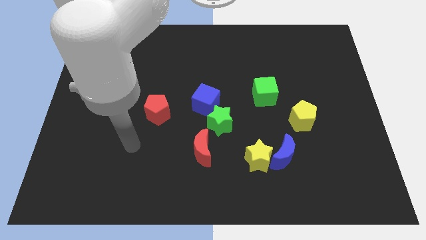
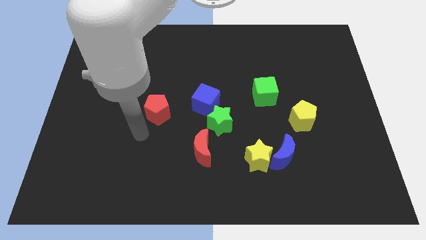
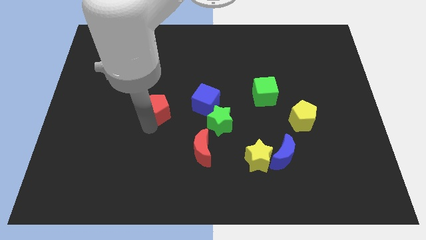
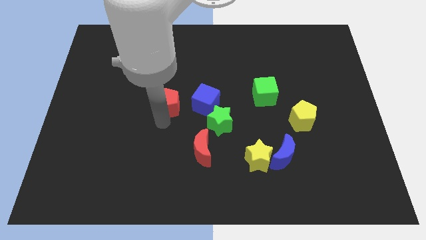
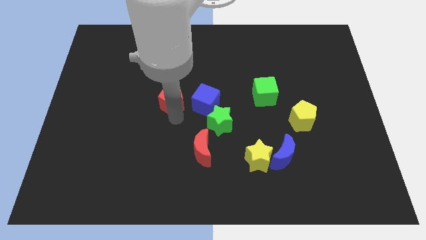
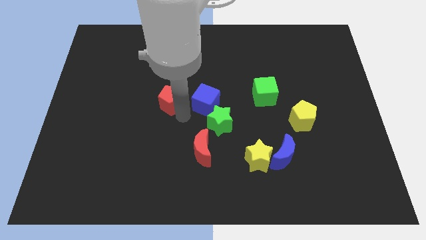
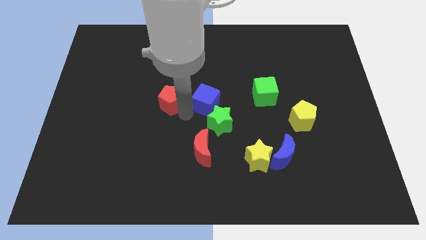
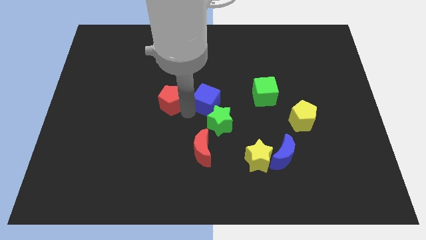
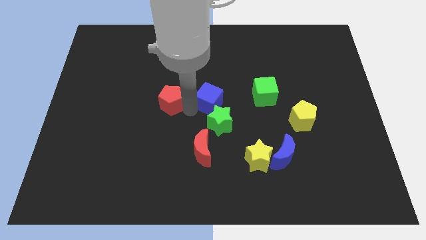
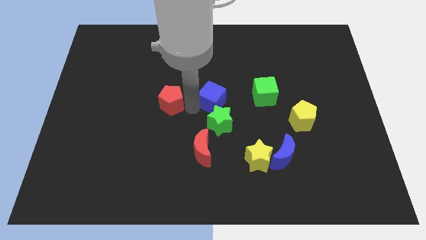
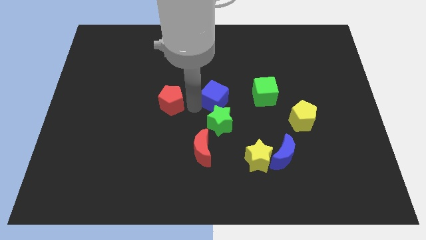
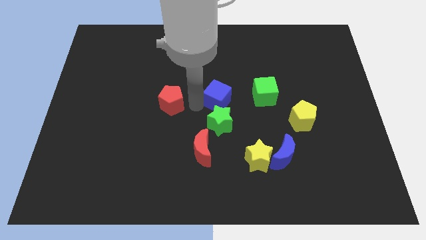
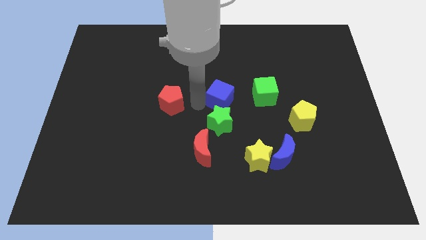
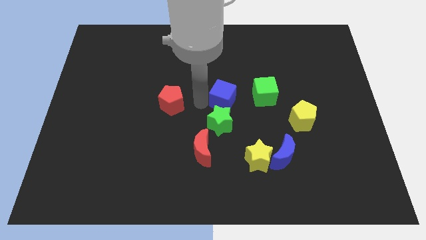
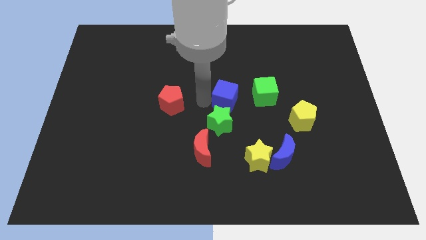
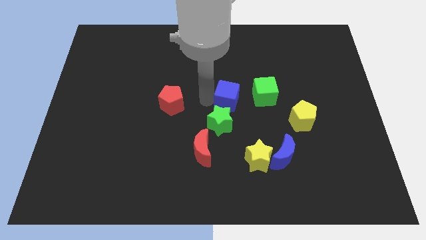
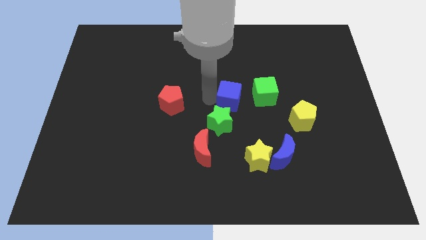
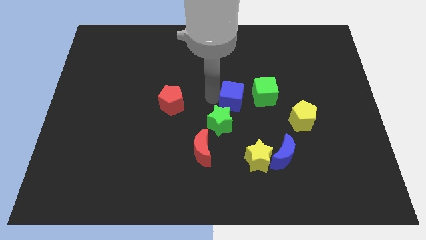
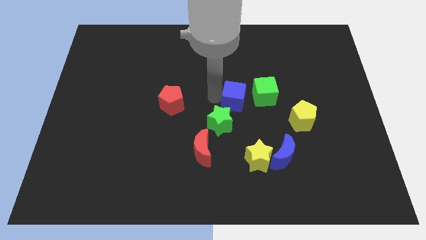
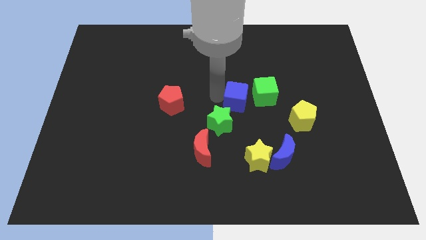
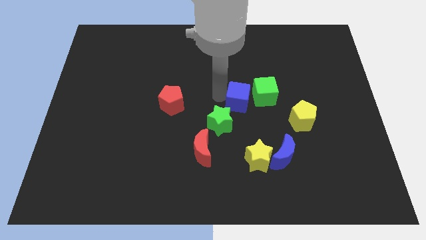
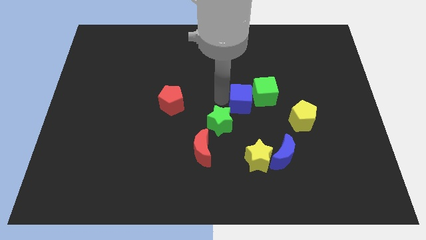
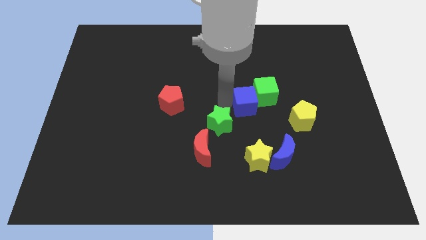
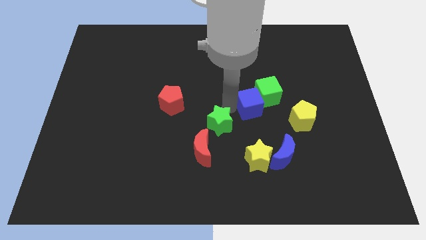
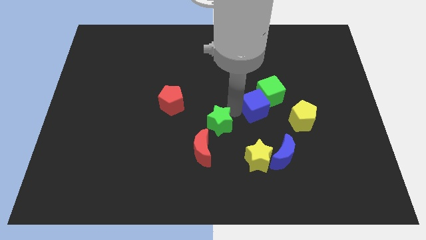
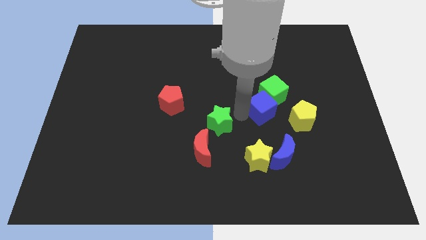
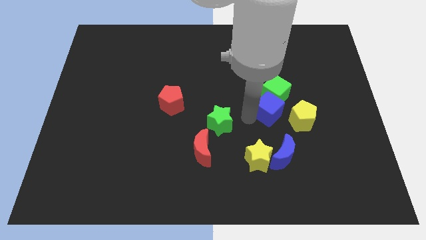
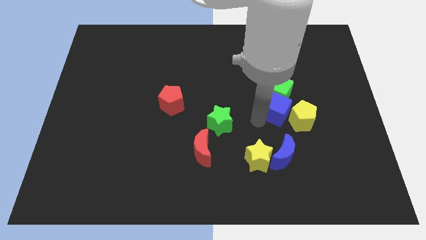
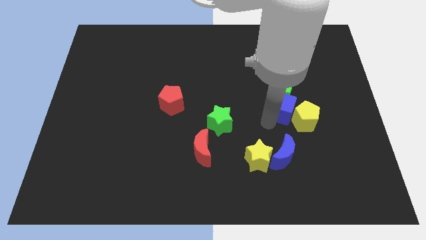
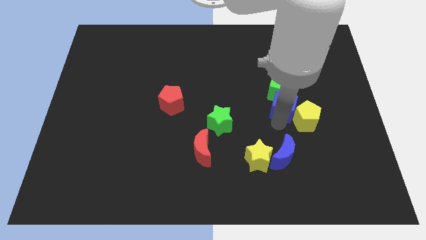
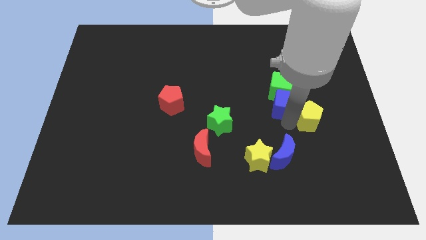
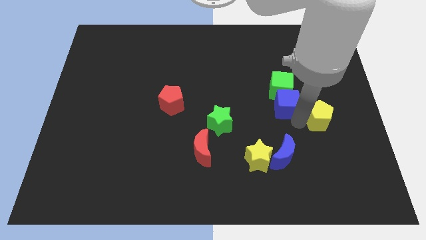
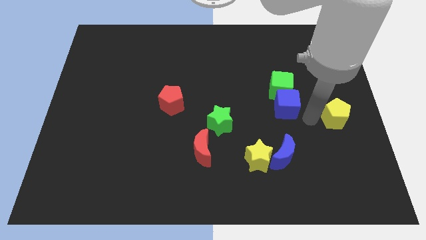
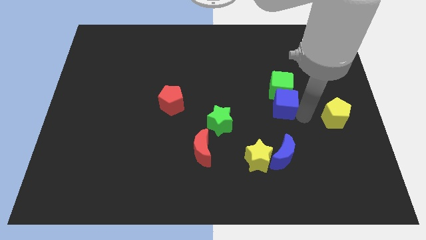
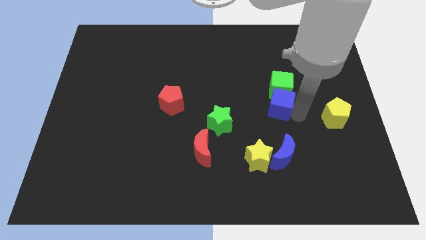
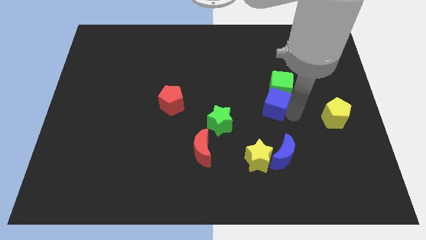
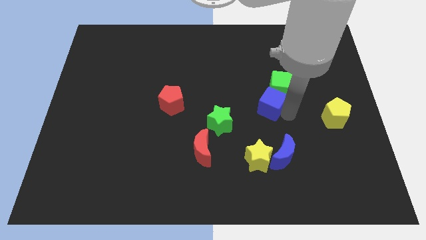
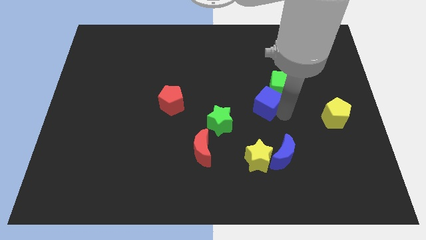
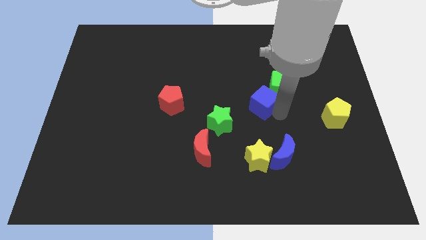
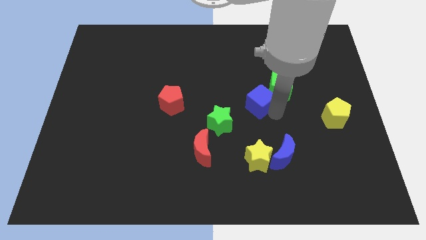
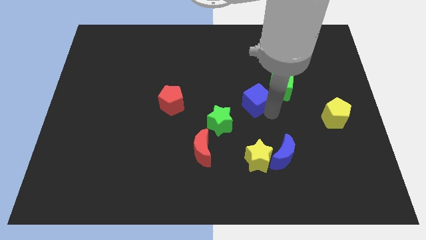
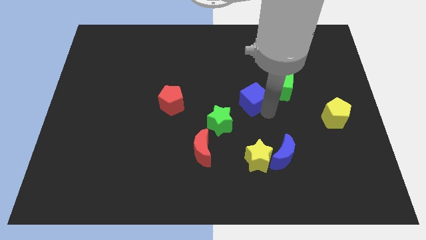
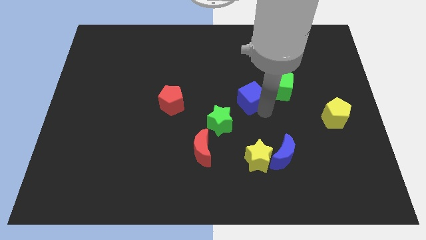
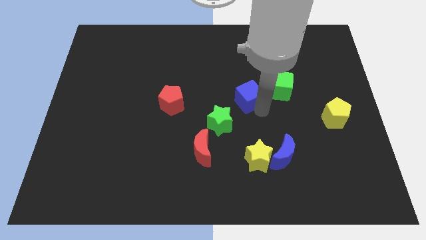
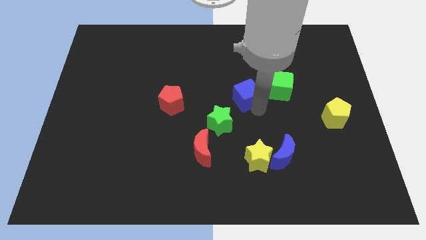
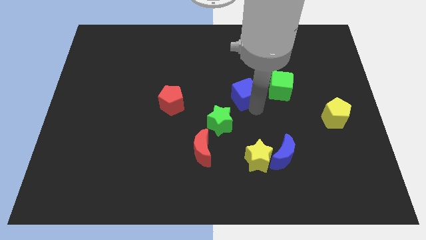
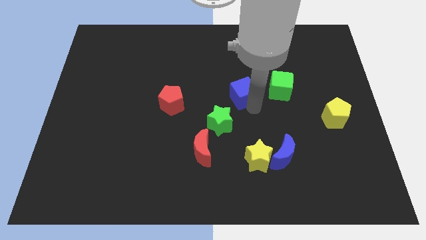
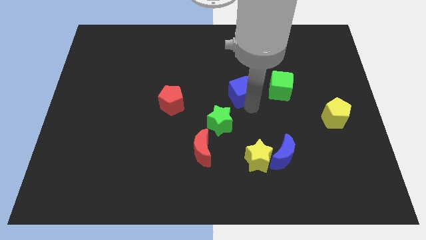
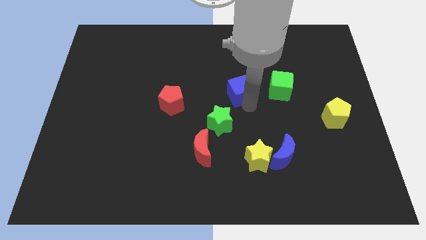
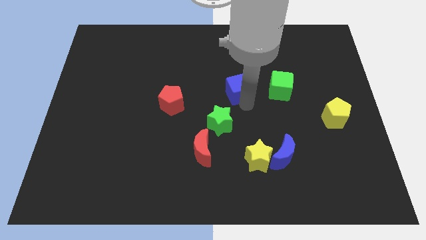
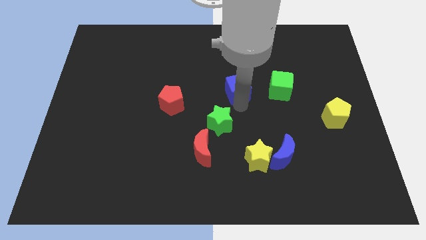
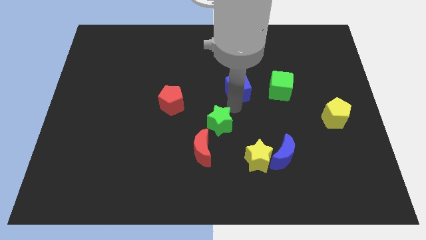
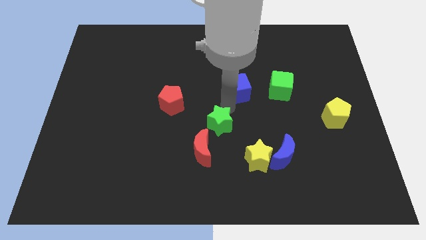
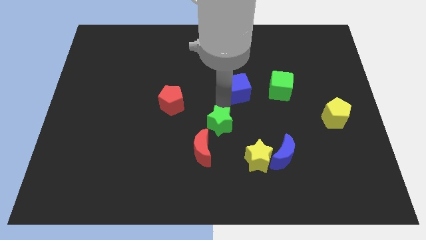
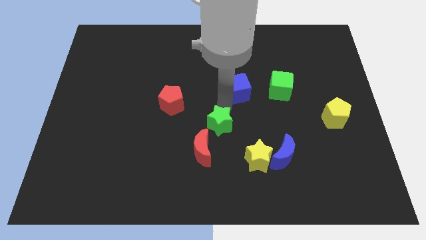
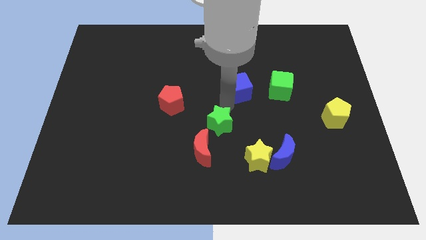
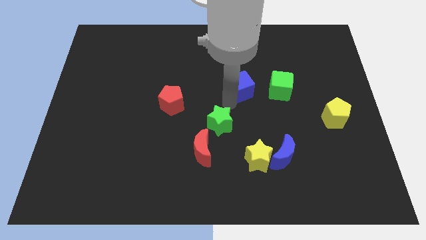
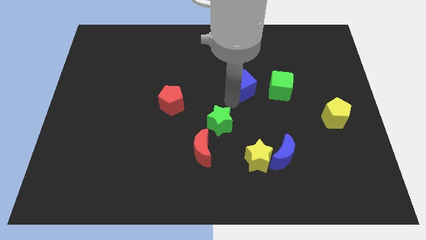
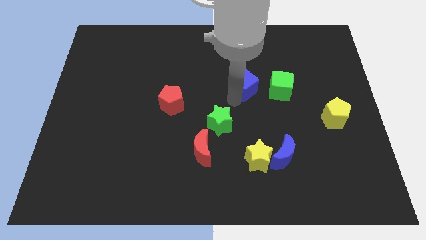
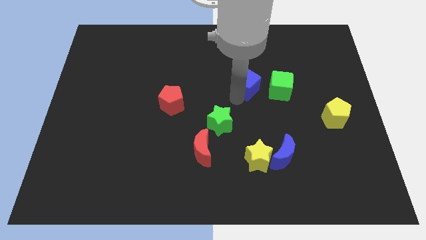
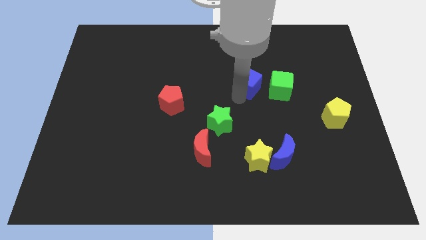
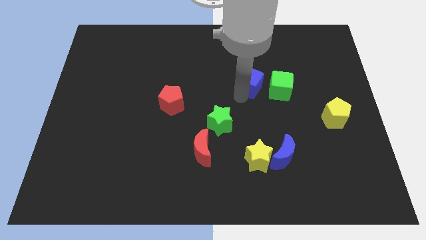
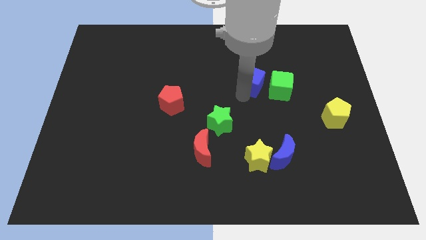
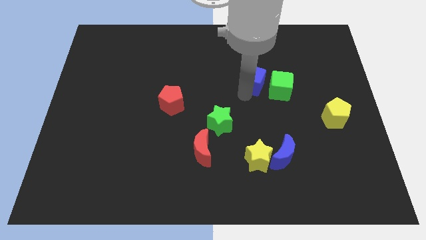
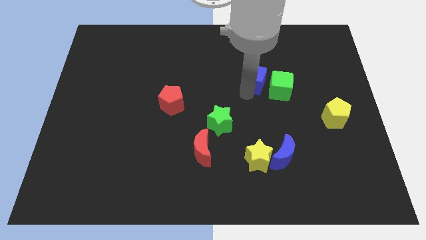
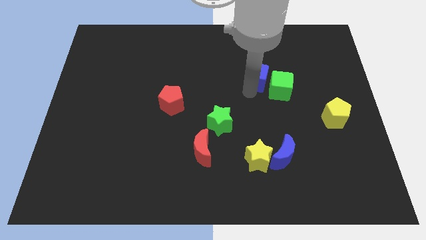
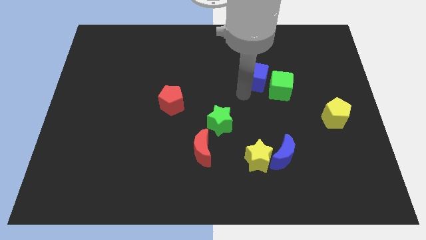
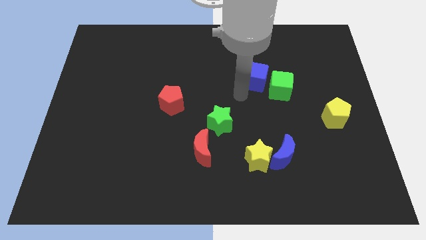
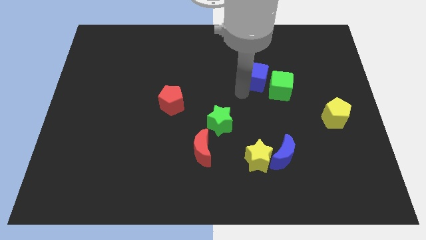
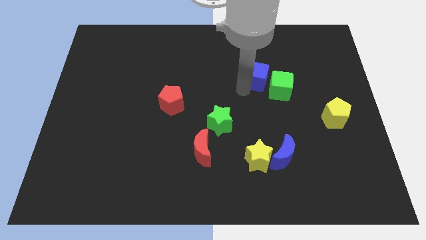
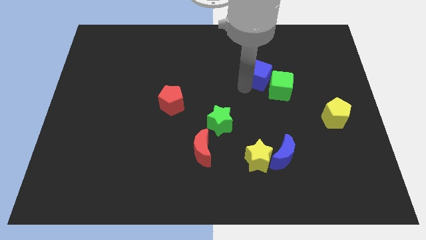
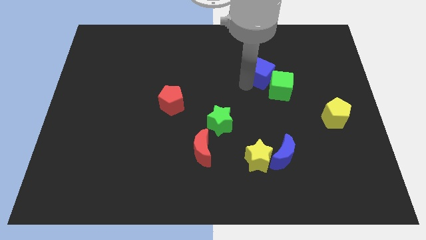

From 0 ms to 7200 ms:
put the blue cube above the green cube

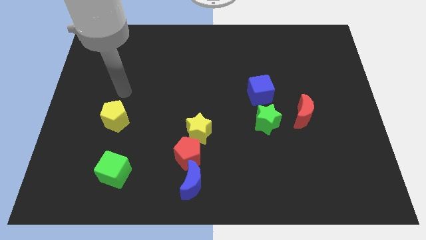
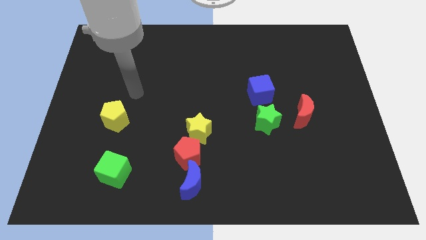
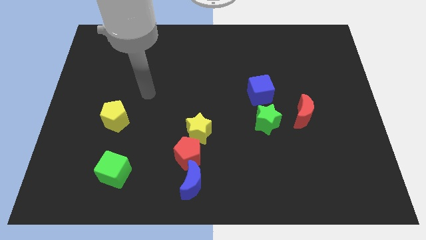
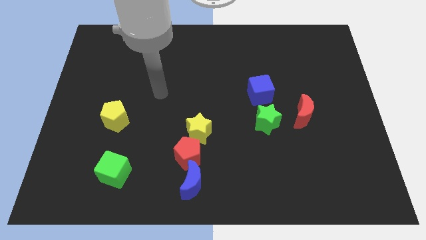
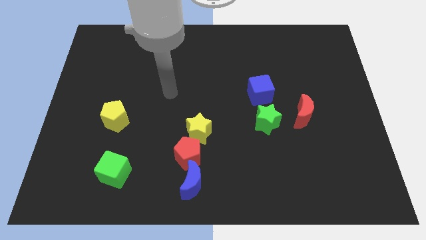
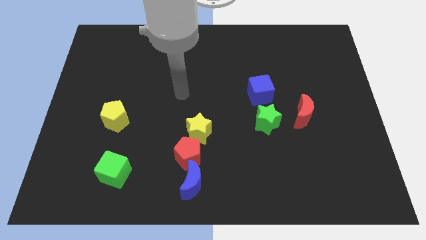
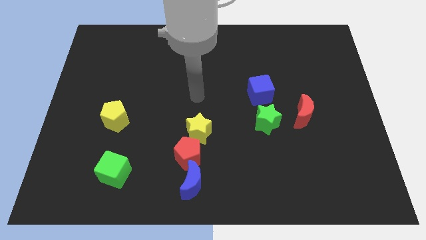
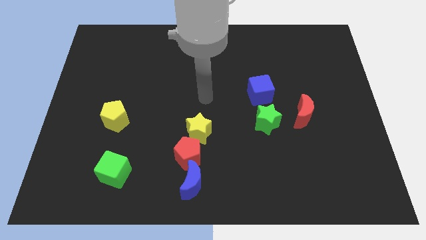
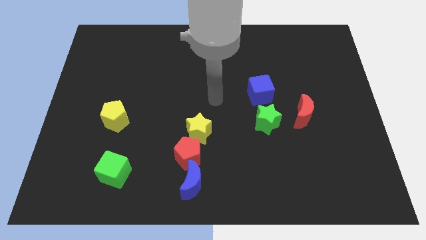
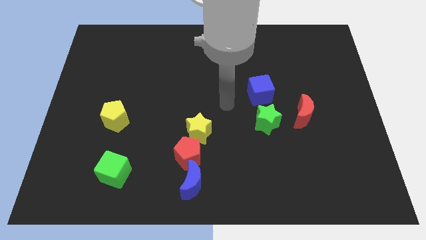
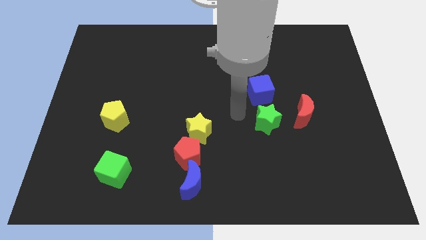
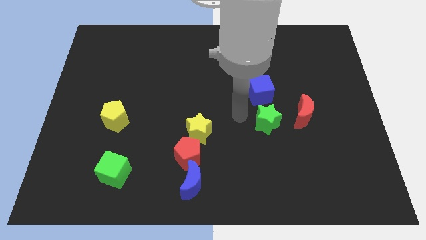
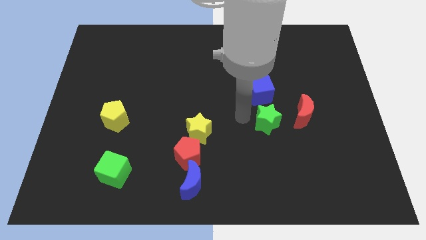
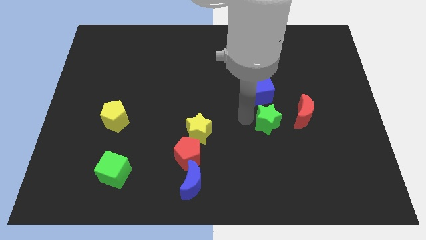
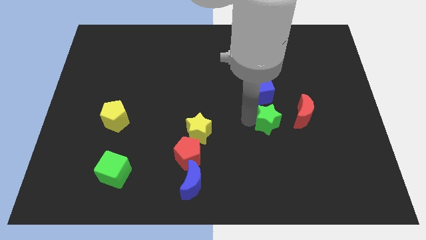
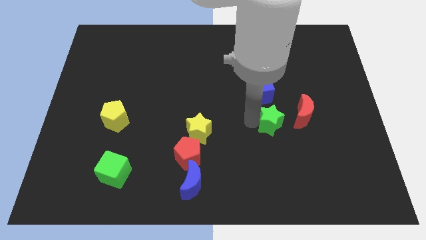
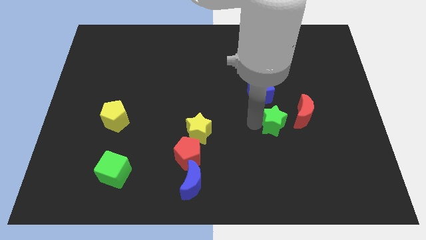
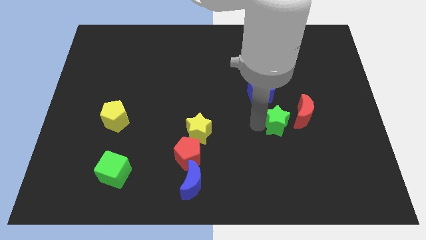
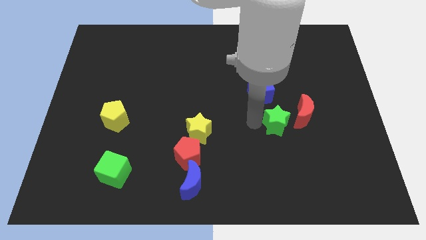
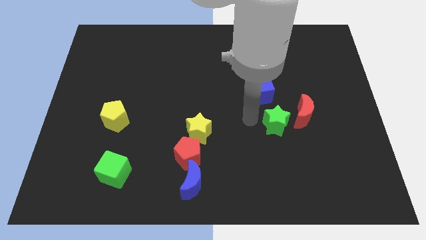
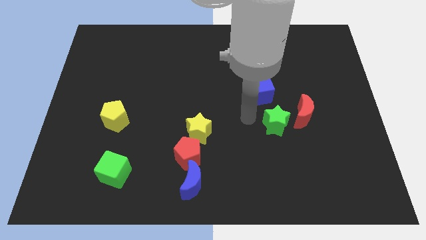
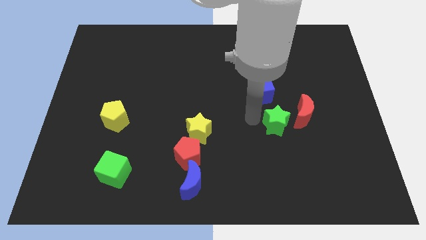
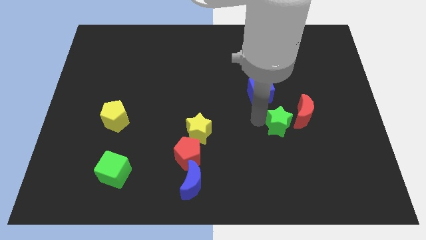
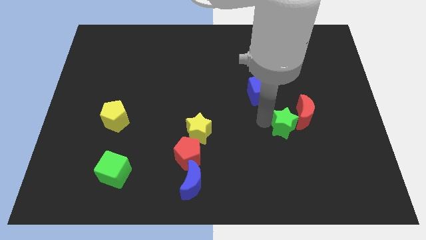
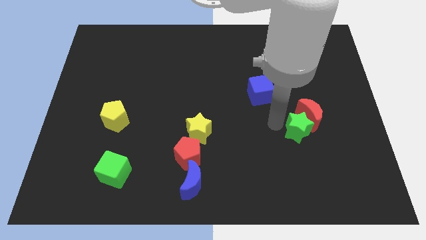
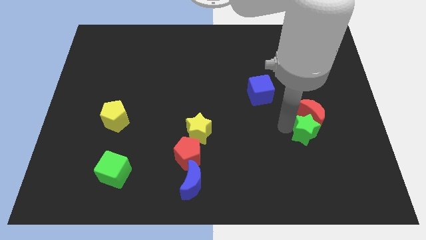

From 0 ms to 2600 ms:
move the green star diagonally down and to the right of the red moon
